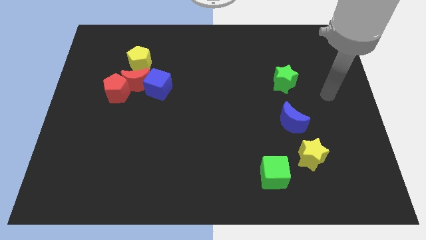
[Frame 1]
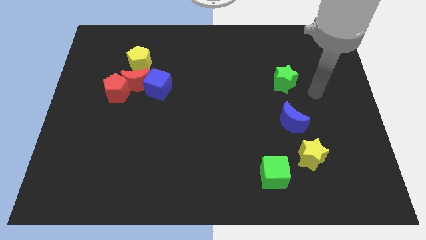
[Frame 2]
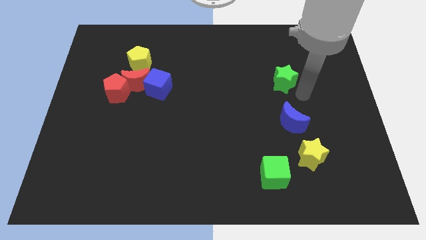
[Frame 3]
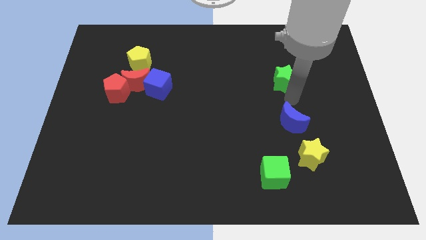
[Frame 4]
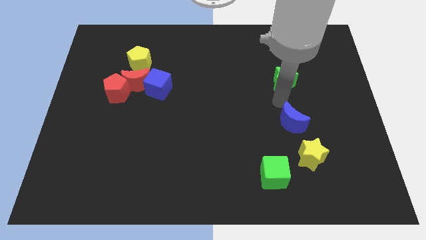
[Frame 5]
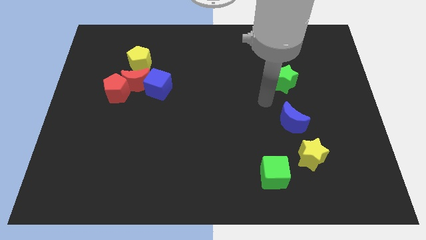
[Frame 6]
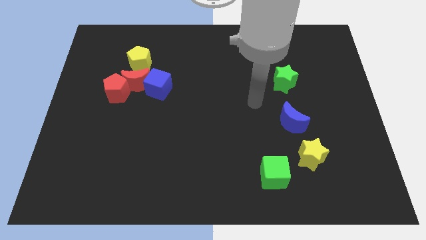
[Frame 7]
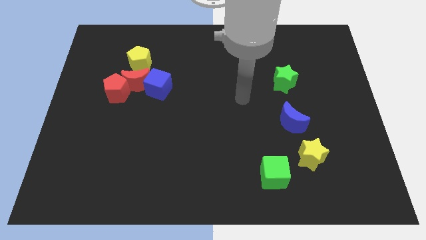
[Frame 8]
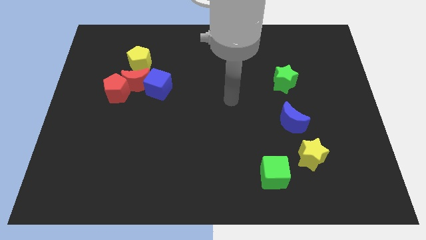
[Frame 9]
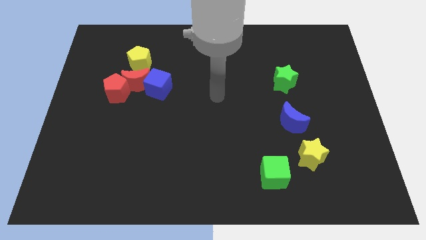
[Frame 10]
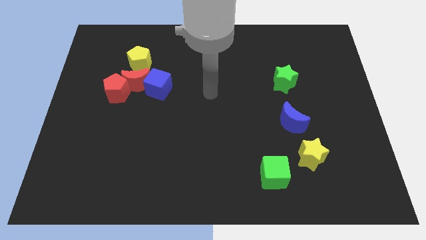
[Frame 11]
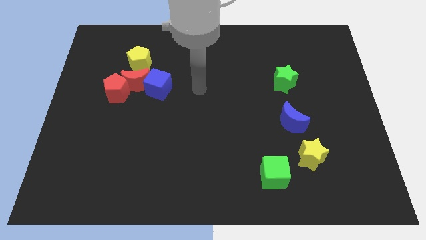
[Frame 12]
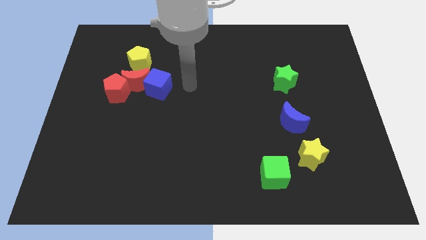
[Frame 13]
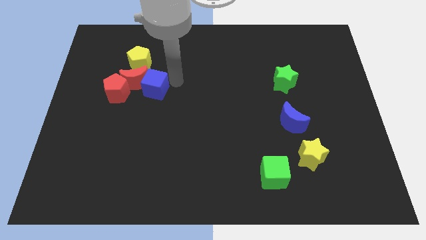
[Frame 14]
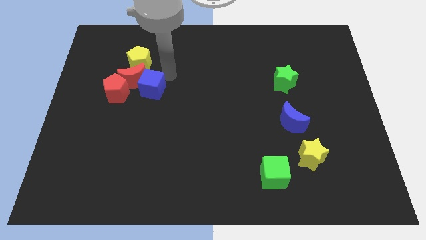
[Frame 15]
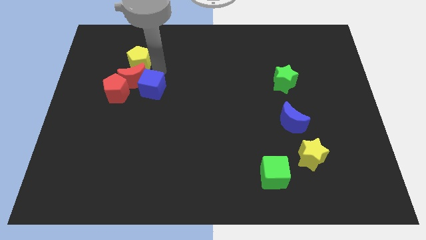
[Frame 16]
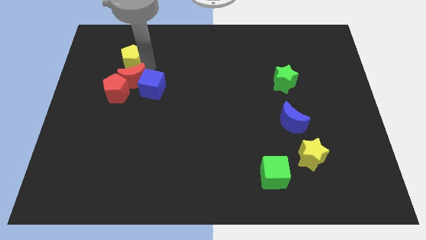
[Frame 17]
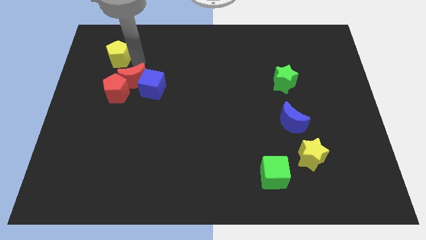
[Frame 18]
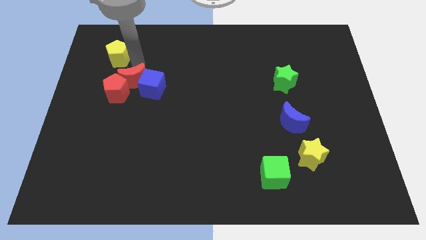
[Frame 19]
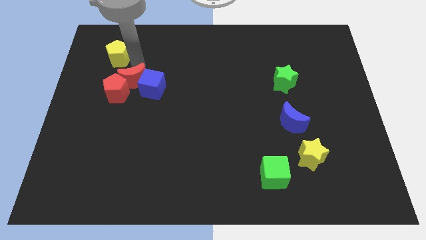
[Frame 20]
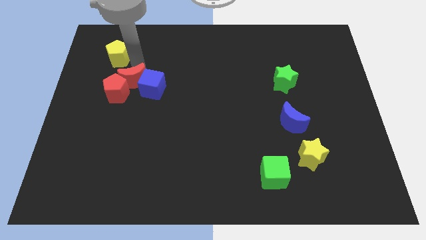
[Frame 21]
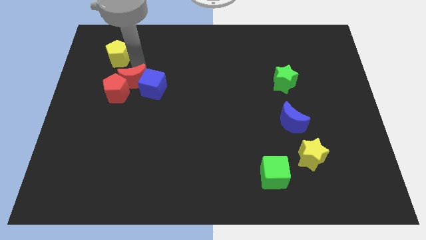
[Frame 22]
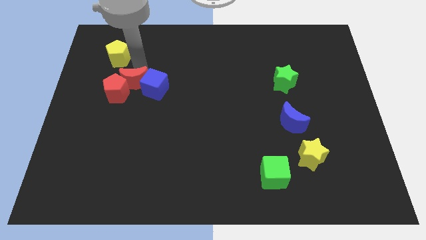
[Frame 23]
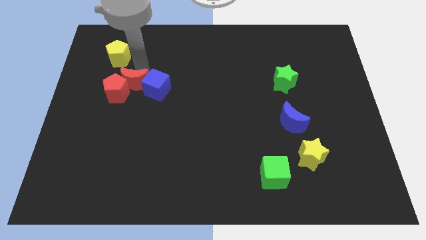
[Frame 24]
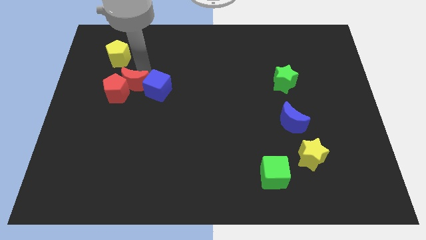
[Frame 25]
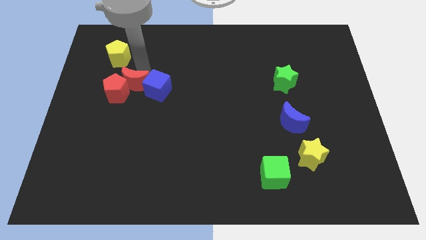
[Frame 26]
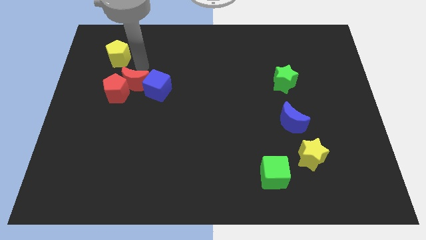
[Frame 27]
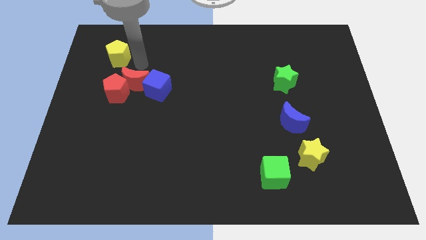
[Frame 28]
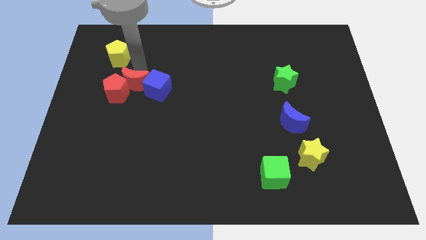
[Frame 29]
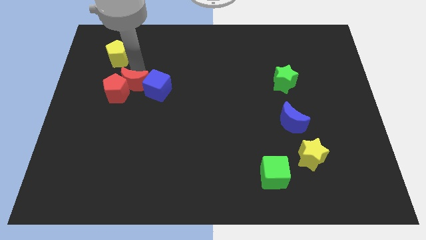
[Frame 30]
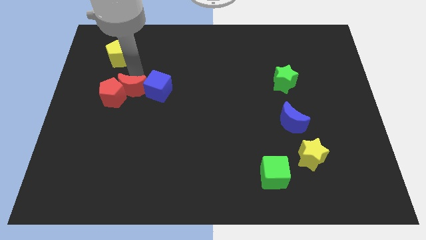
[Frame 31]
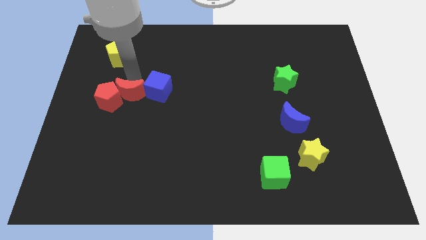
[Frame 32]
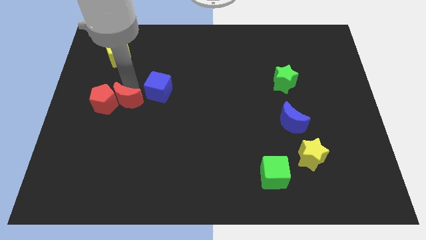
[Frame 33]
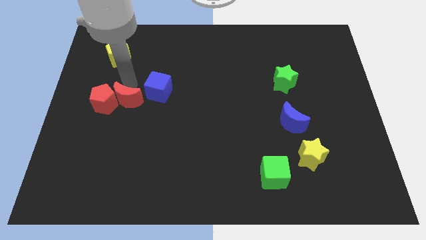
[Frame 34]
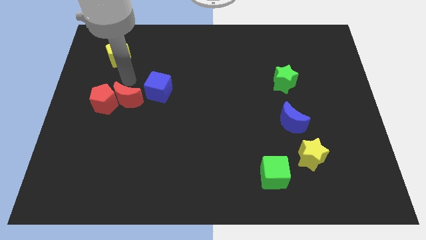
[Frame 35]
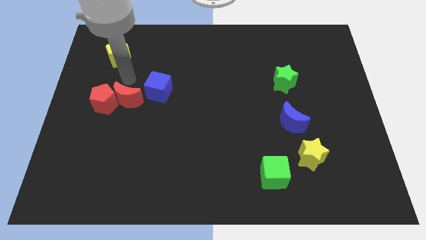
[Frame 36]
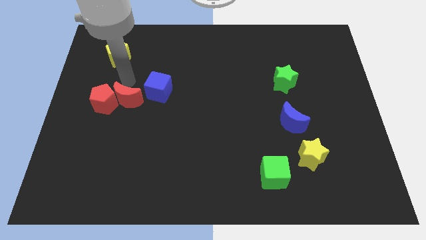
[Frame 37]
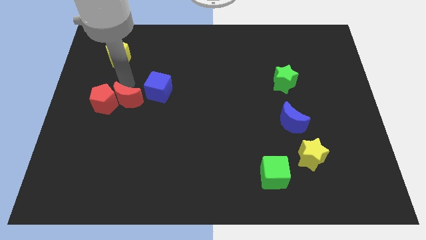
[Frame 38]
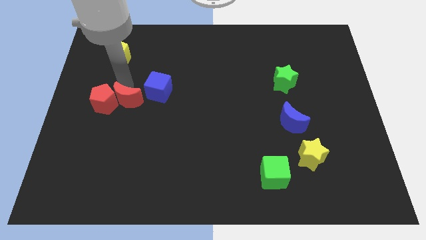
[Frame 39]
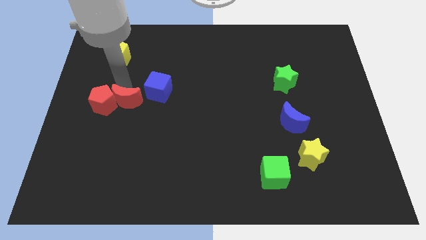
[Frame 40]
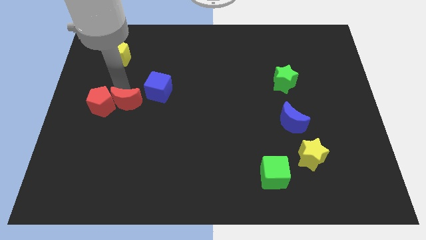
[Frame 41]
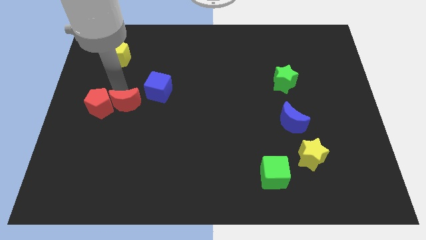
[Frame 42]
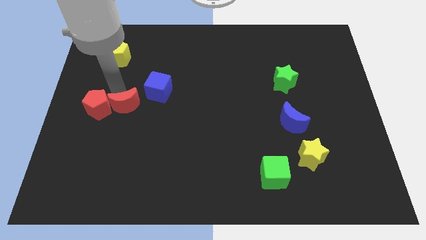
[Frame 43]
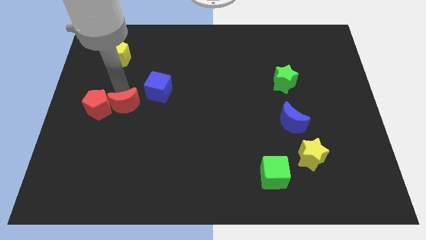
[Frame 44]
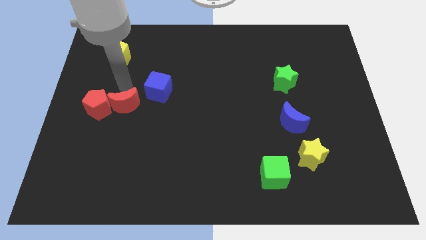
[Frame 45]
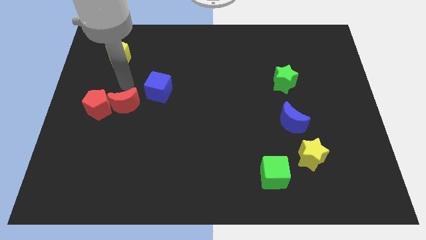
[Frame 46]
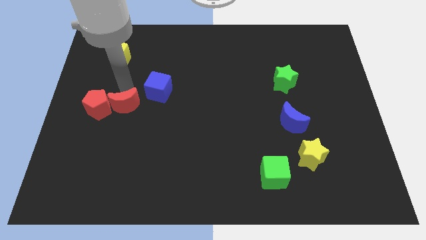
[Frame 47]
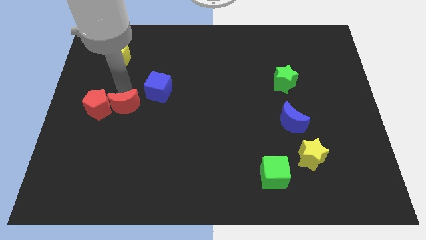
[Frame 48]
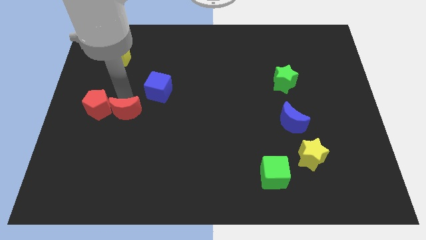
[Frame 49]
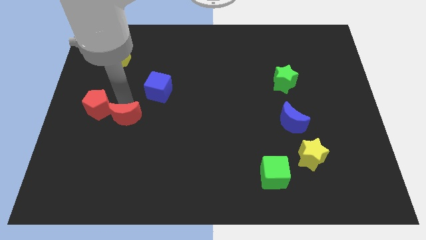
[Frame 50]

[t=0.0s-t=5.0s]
pull the red moon apart from the clump

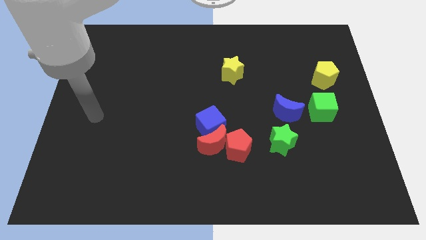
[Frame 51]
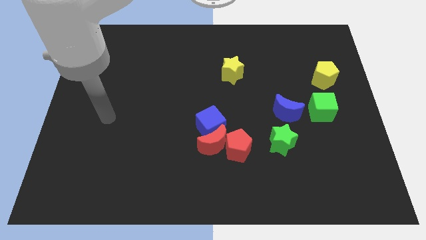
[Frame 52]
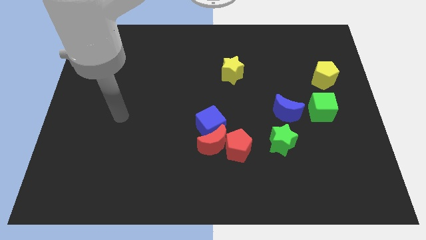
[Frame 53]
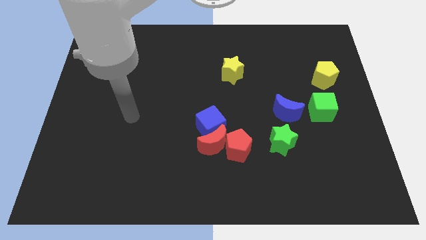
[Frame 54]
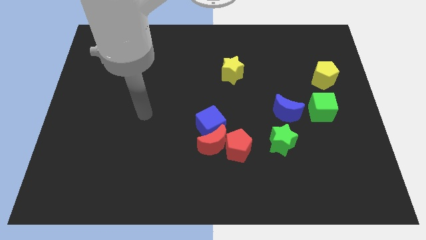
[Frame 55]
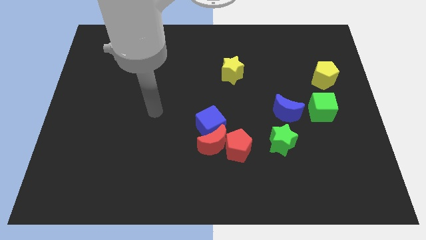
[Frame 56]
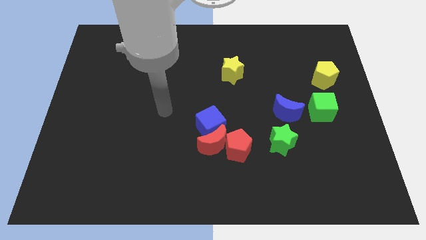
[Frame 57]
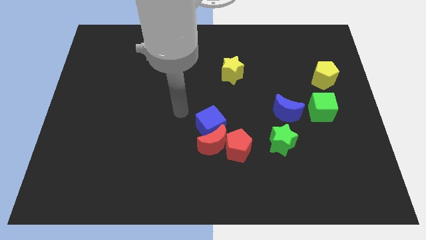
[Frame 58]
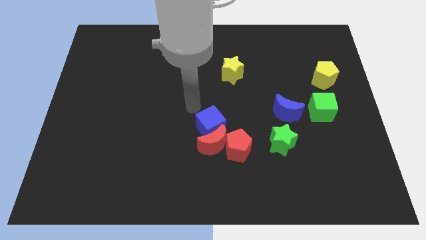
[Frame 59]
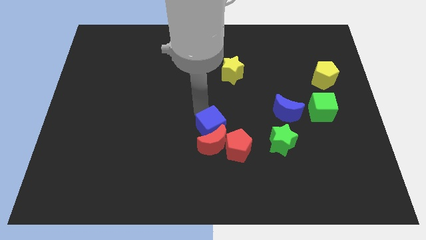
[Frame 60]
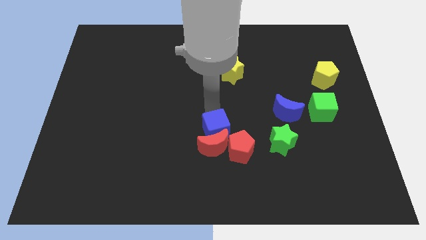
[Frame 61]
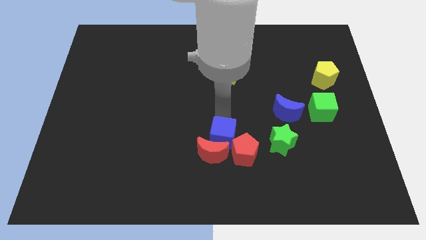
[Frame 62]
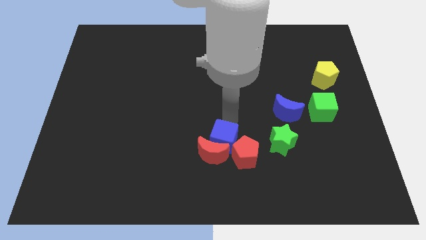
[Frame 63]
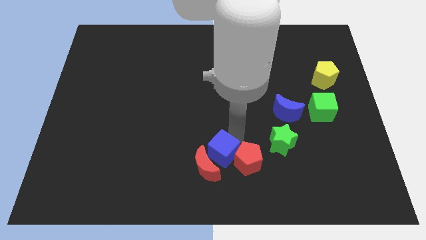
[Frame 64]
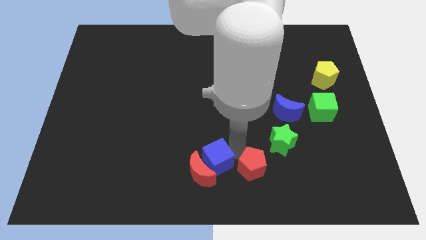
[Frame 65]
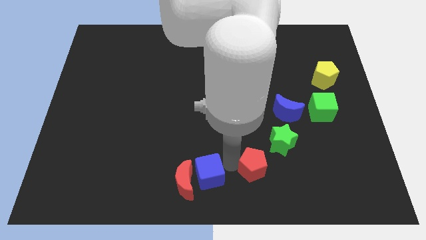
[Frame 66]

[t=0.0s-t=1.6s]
separate the red moon from the blue cube and red pentagon

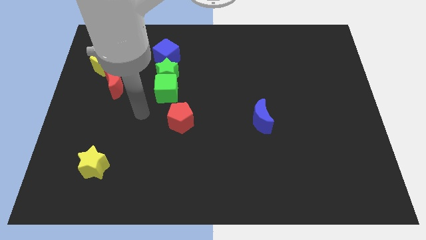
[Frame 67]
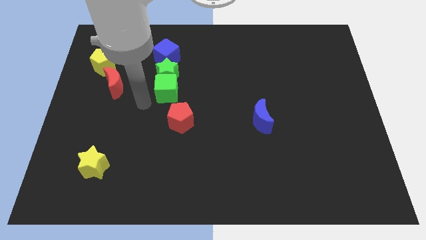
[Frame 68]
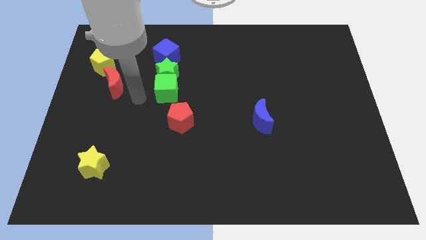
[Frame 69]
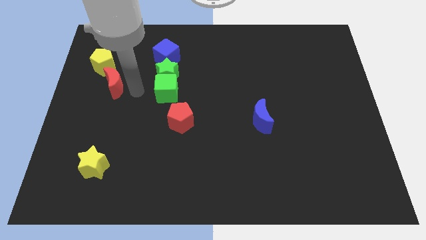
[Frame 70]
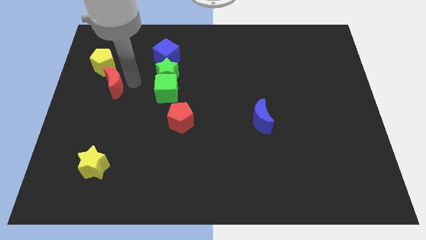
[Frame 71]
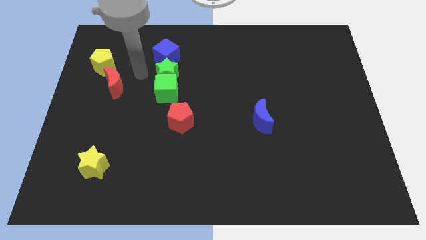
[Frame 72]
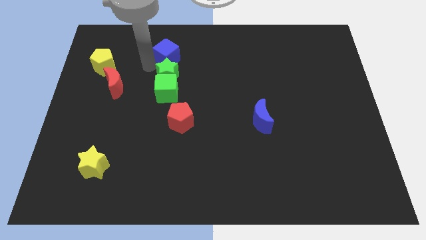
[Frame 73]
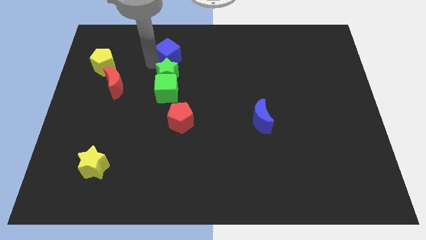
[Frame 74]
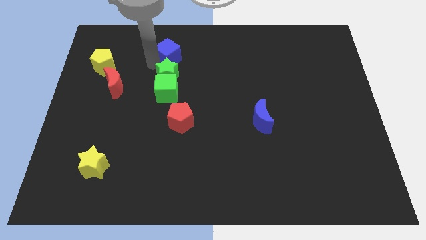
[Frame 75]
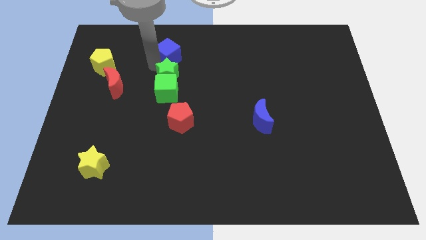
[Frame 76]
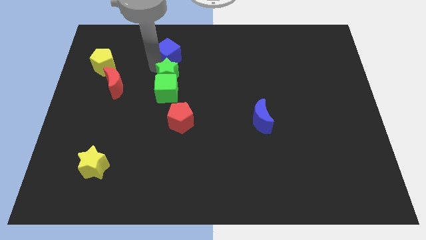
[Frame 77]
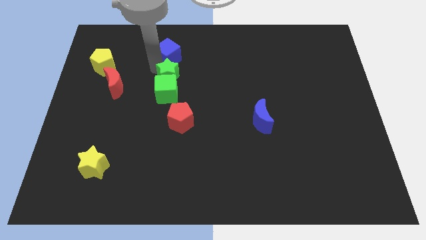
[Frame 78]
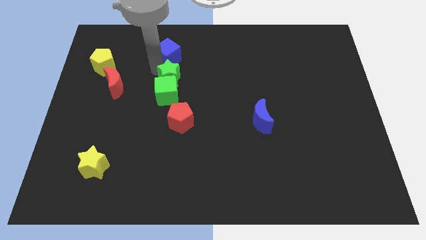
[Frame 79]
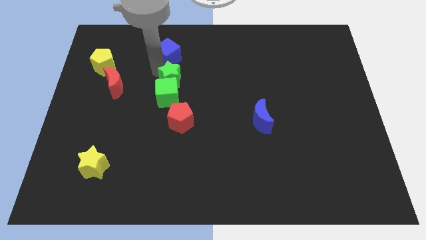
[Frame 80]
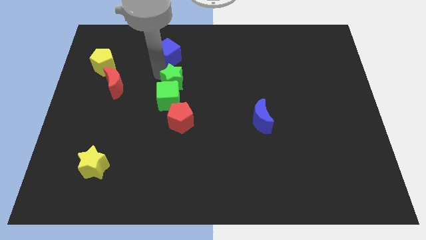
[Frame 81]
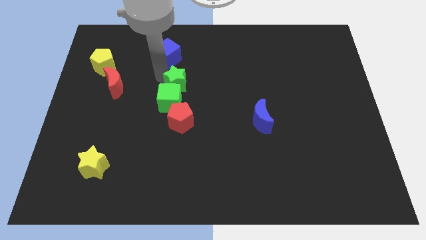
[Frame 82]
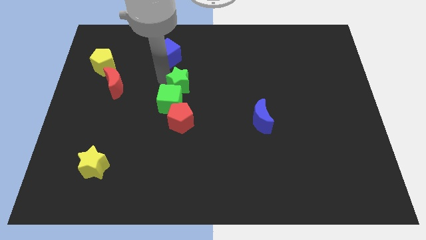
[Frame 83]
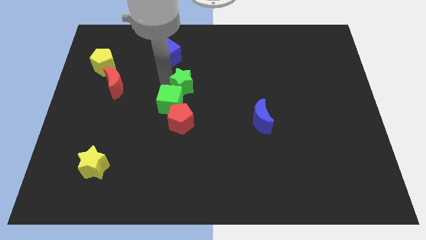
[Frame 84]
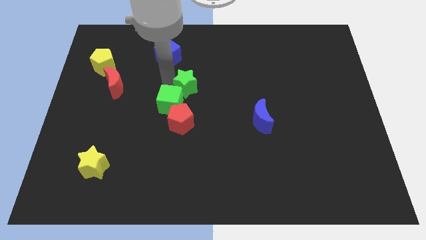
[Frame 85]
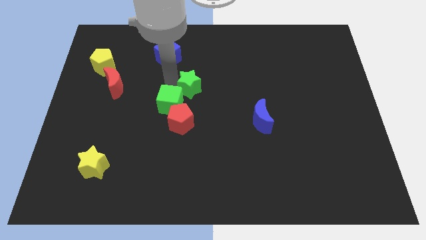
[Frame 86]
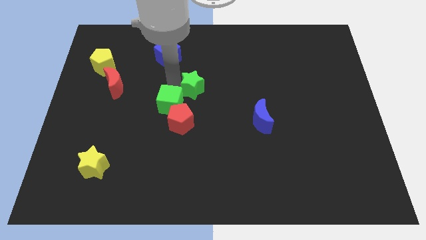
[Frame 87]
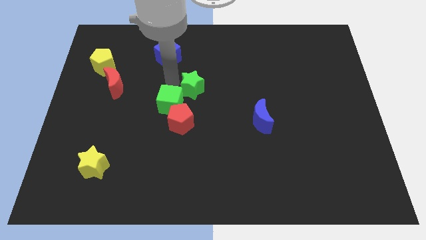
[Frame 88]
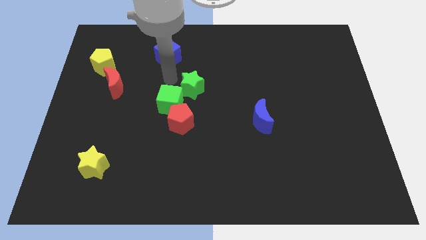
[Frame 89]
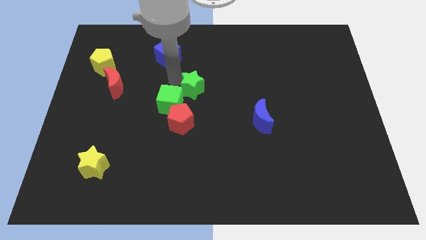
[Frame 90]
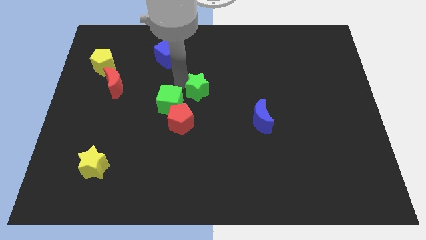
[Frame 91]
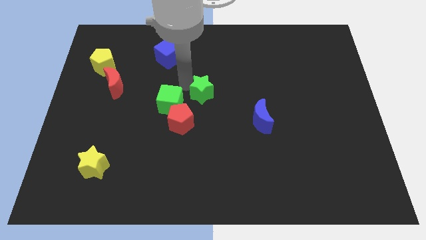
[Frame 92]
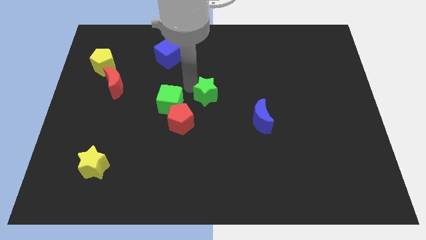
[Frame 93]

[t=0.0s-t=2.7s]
move the green star away from the green cube and blue cube
